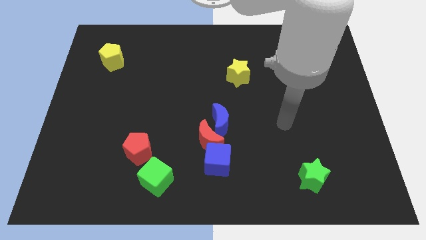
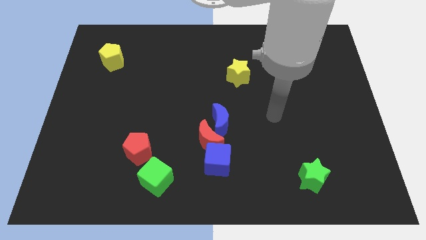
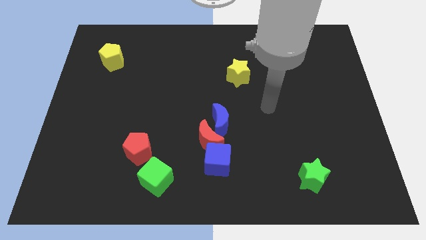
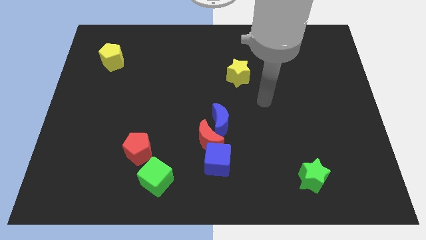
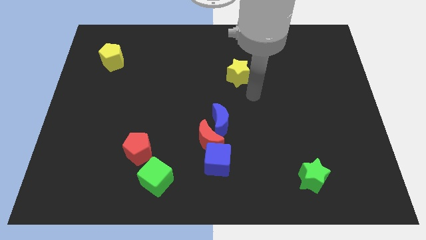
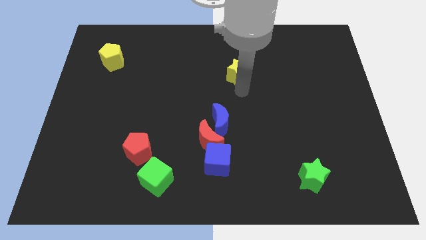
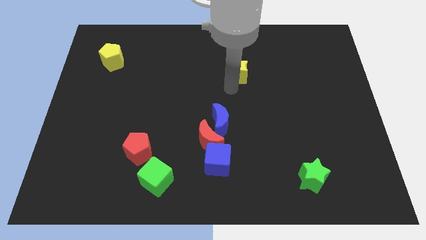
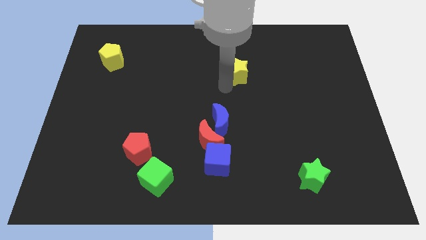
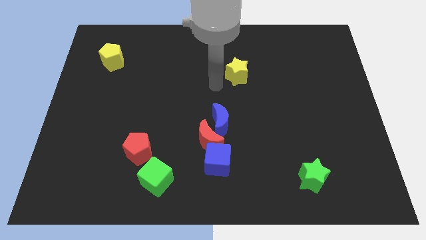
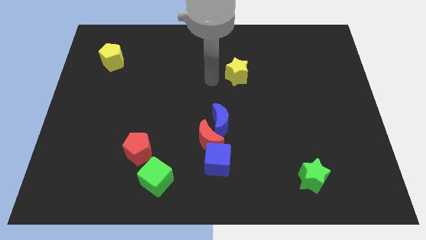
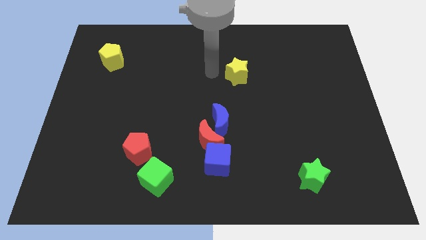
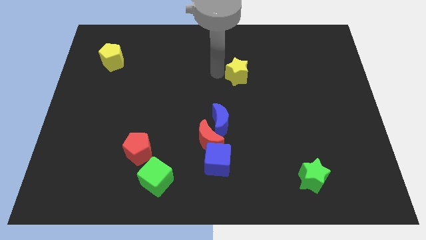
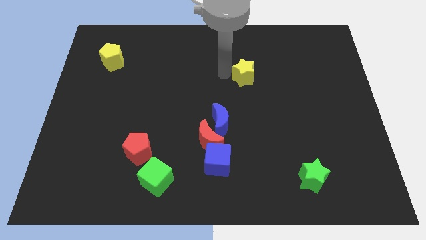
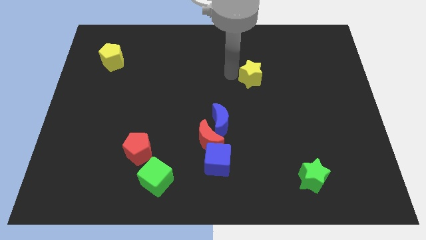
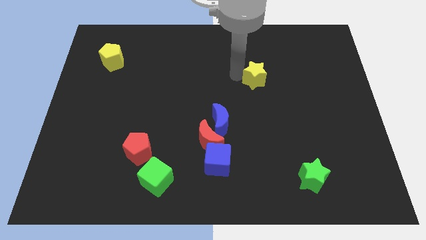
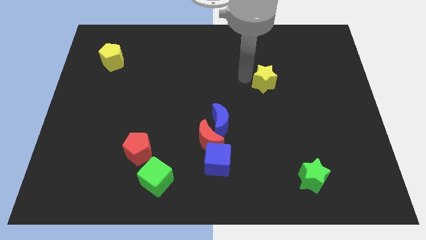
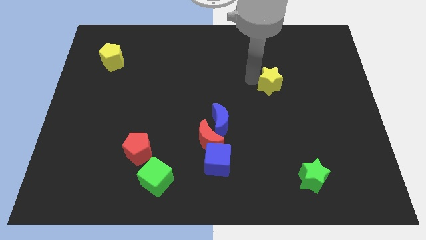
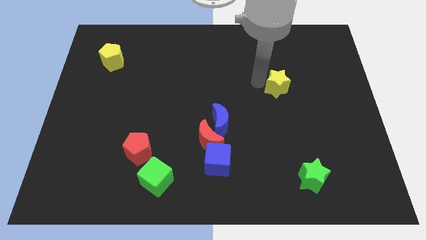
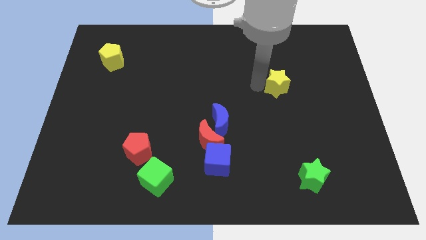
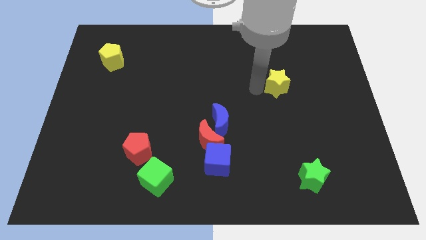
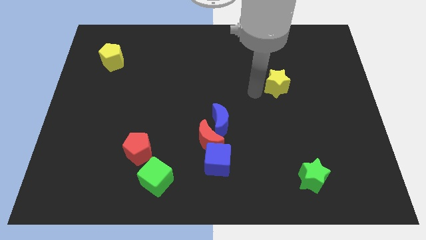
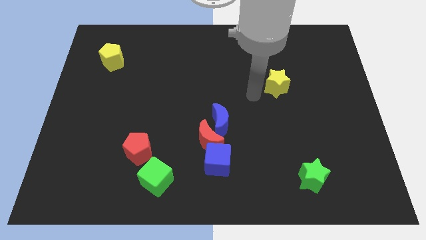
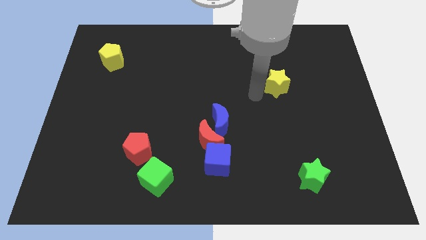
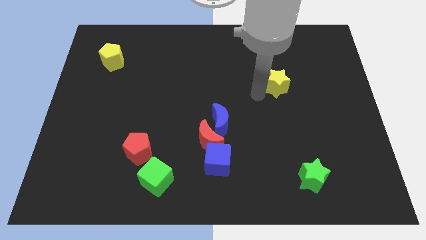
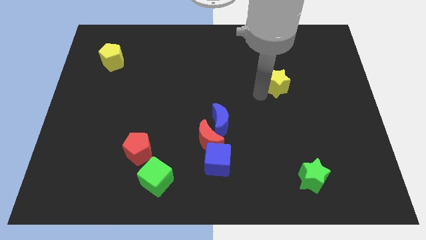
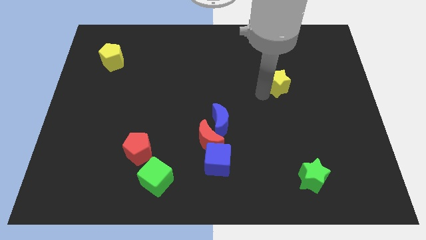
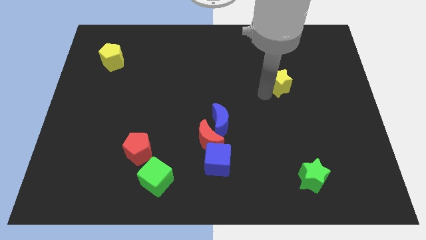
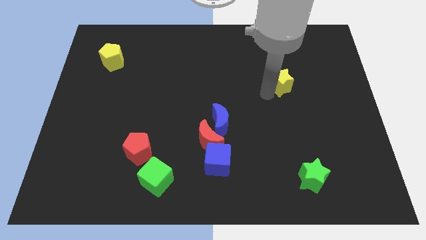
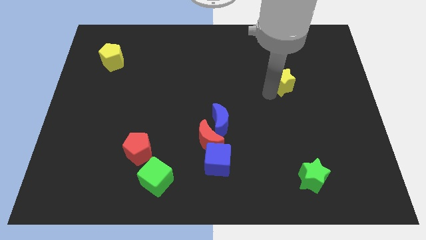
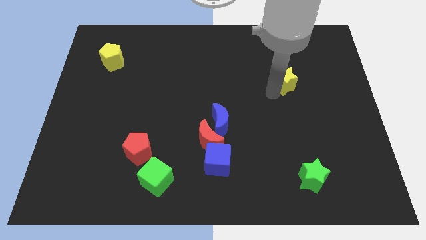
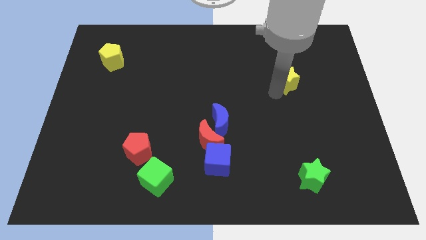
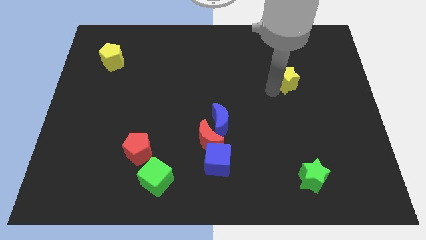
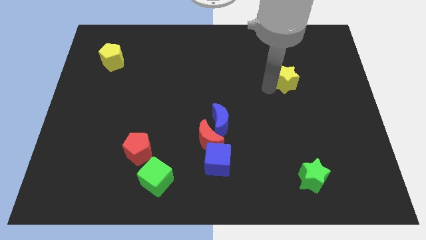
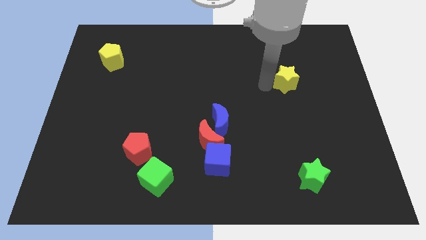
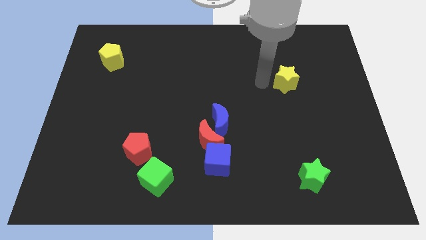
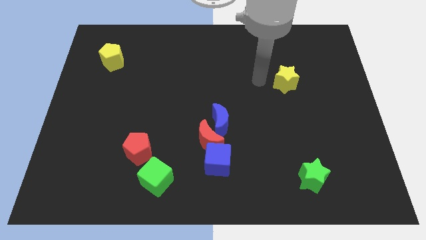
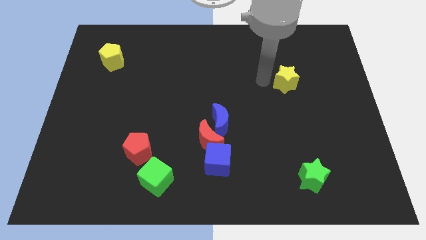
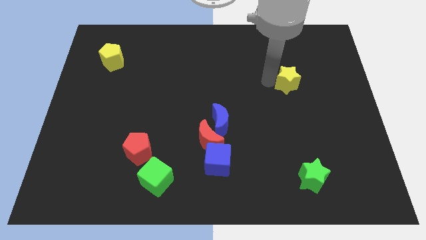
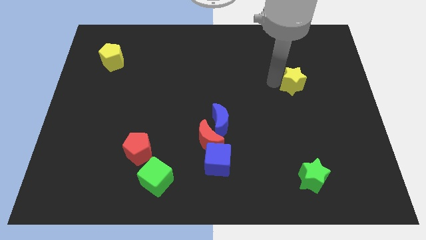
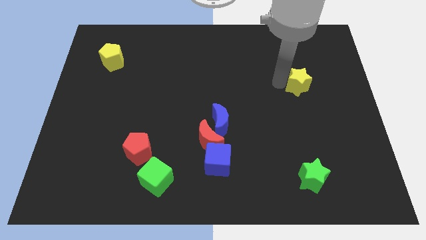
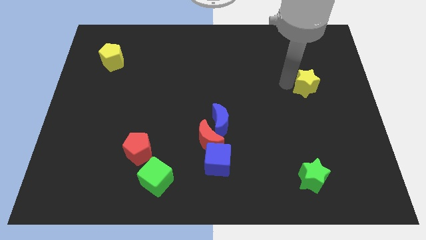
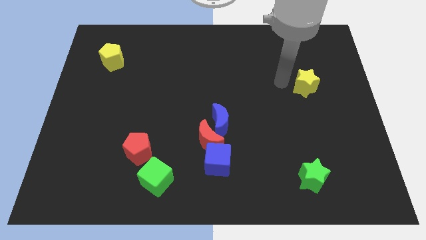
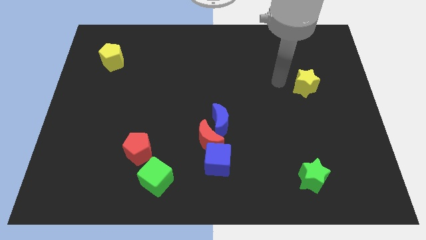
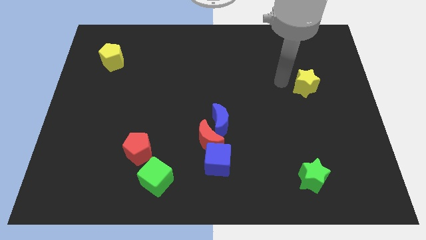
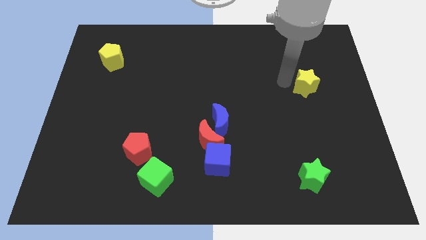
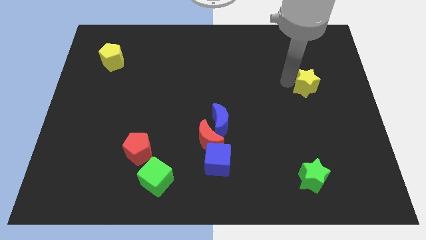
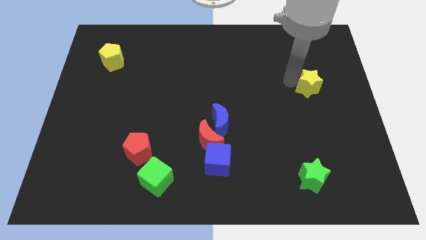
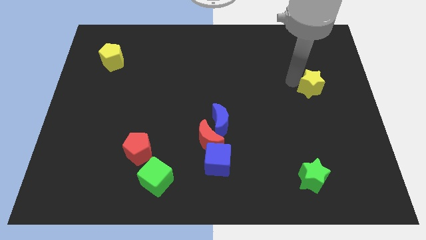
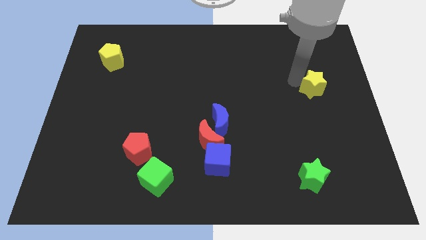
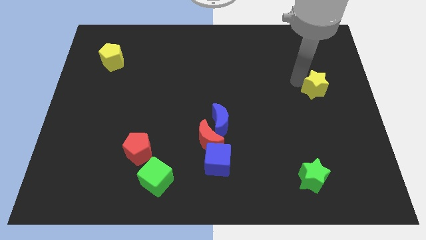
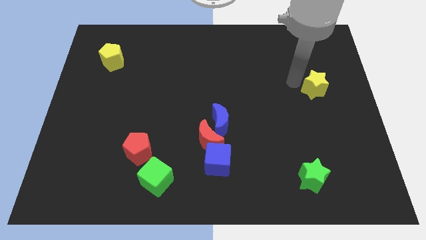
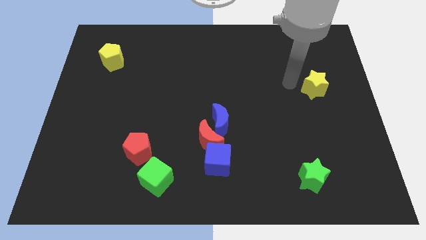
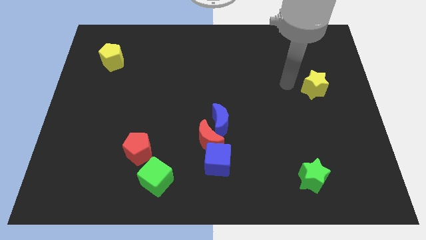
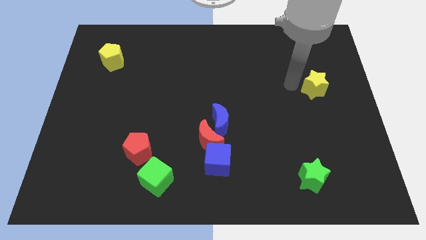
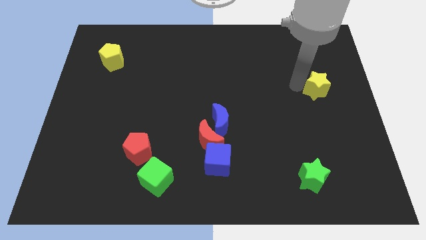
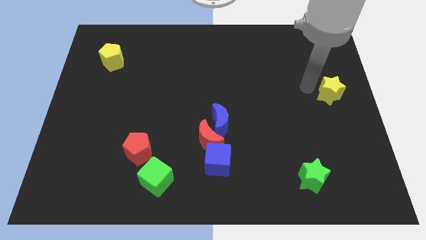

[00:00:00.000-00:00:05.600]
slide the yellow star to the right side of the board

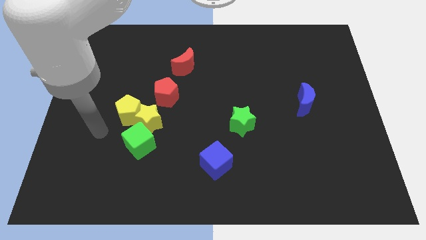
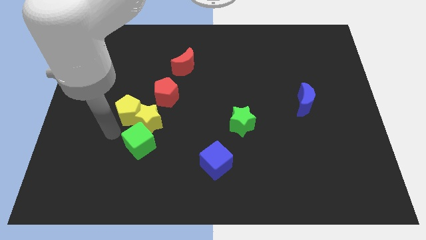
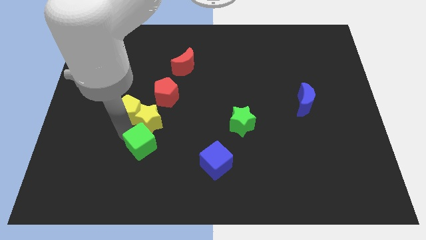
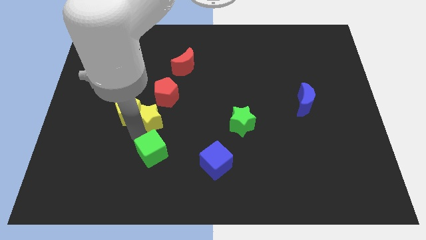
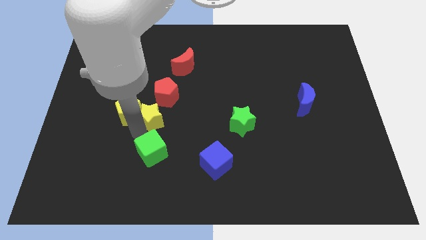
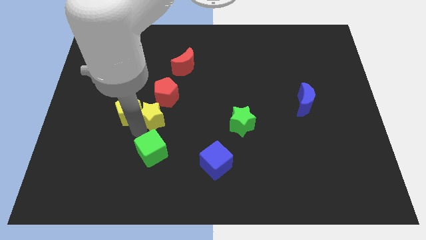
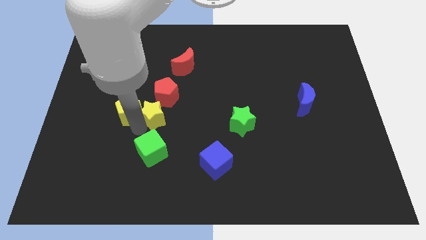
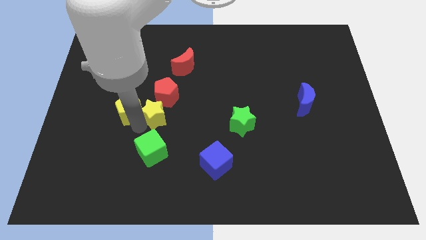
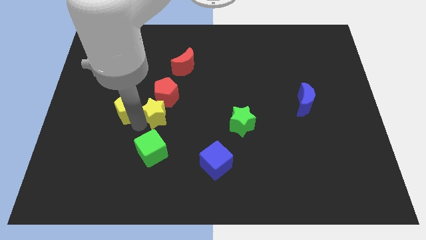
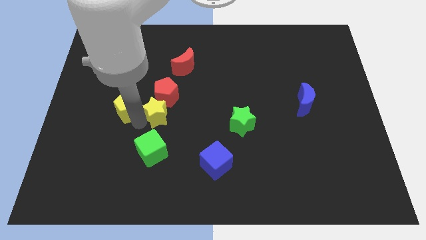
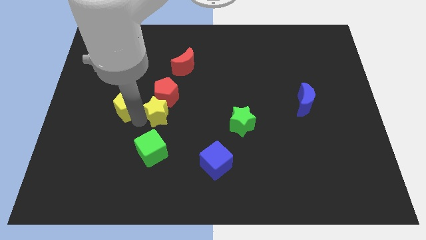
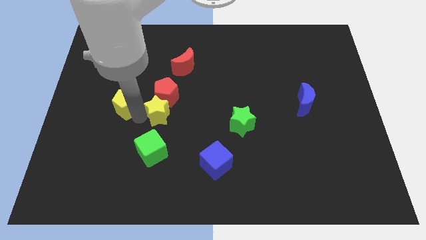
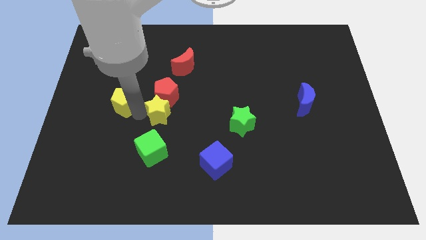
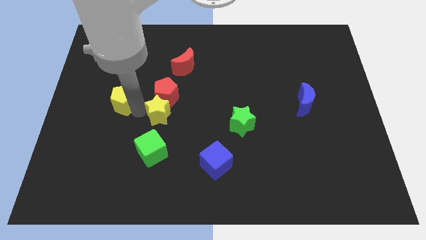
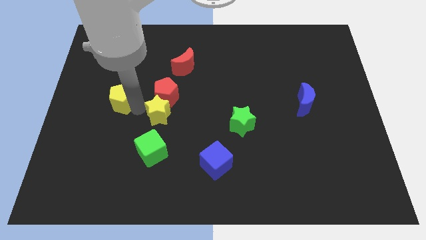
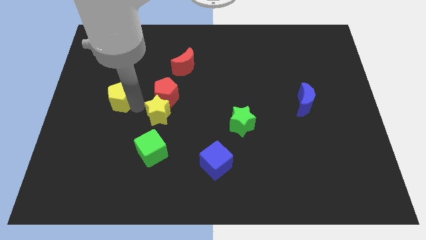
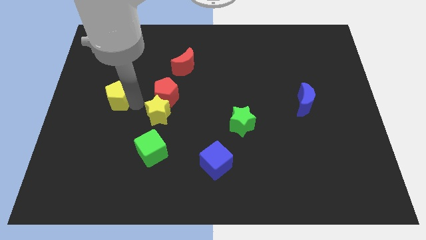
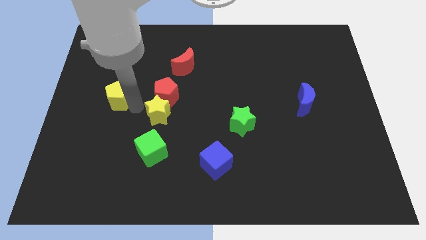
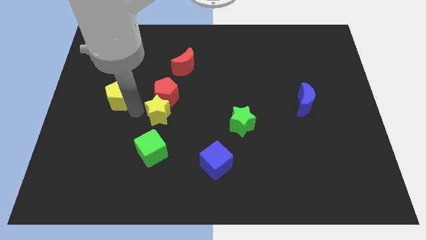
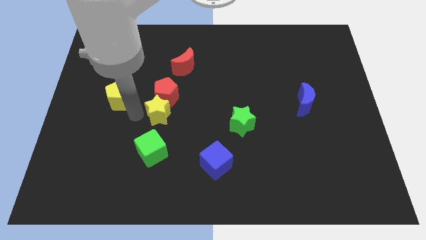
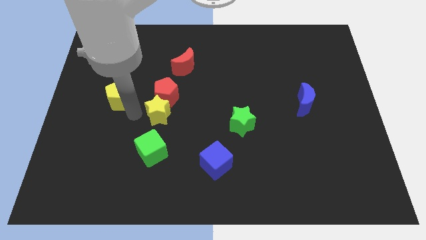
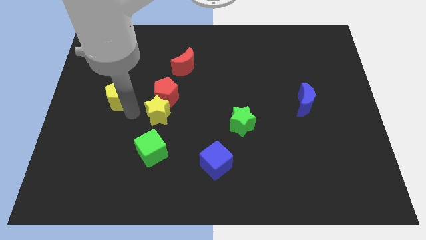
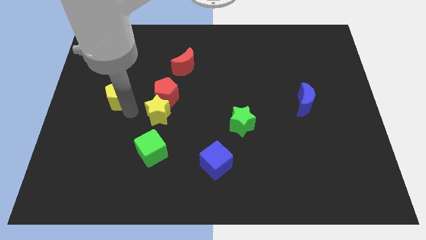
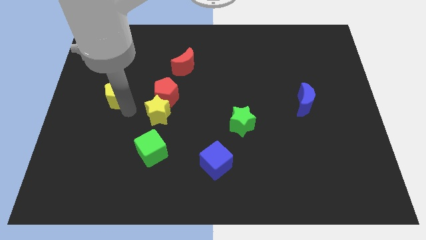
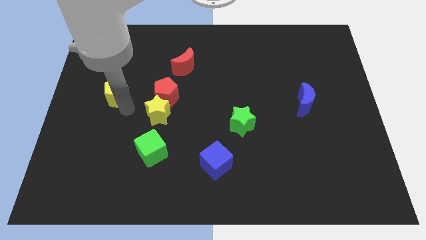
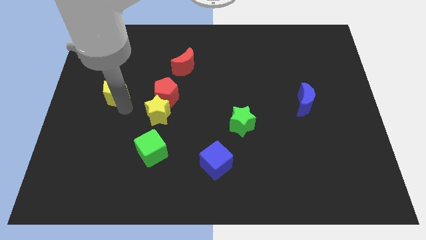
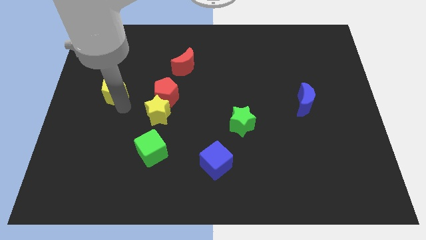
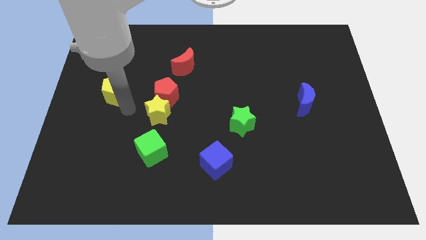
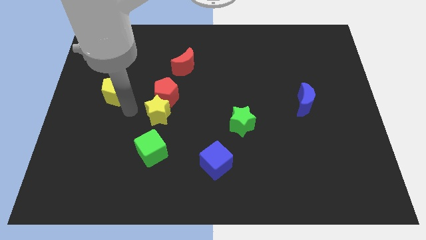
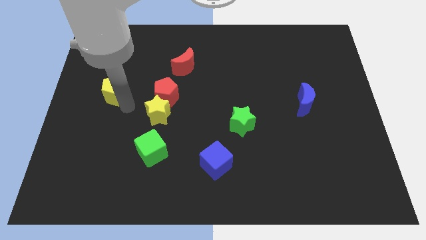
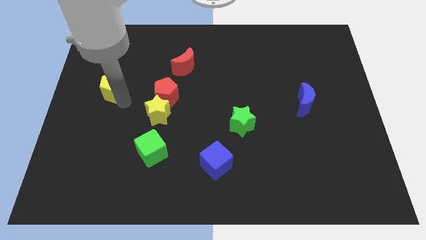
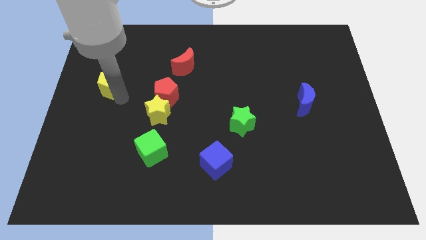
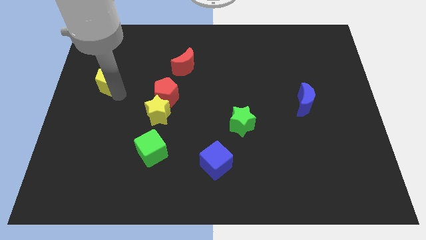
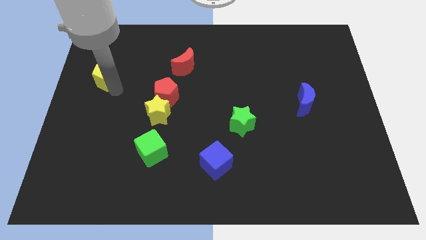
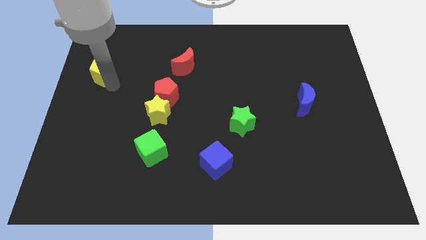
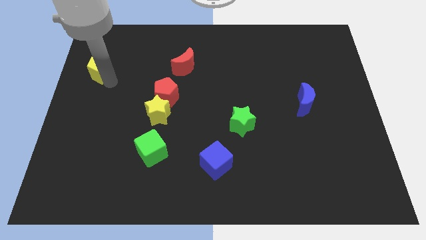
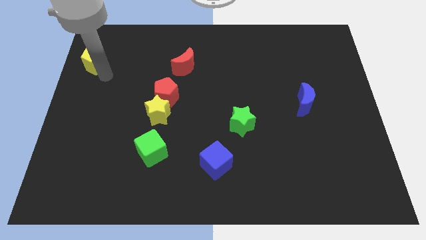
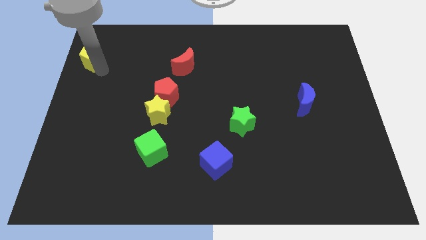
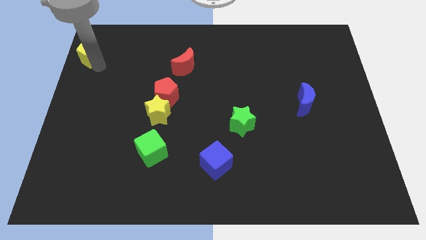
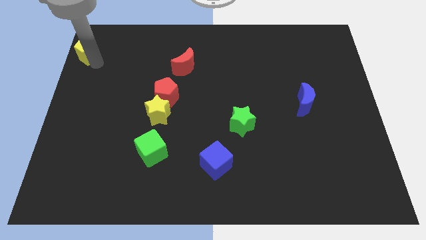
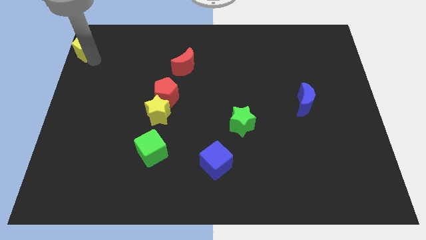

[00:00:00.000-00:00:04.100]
slide the yellow pentagon to the top left
